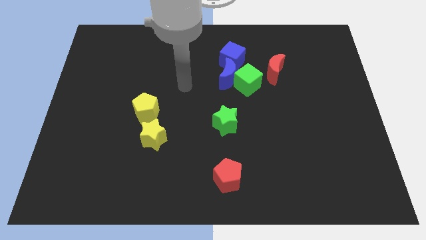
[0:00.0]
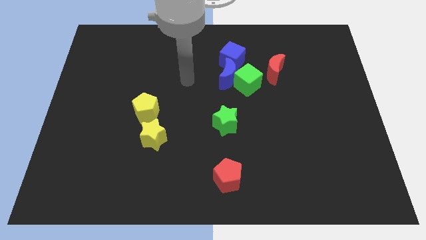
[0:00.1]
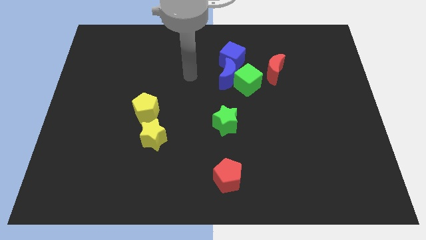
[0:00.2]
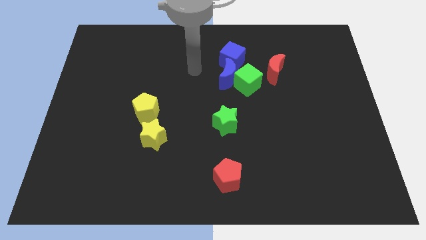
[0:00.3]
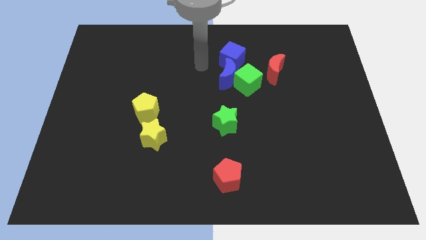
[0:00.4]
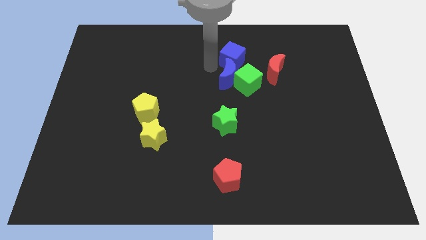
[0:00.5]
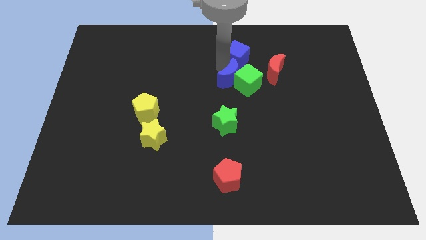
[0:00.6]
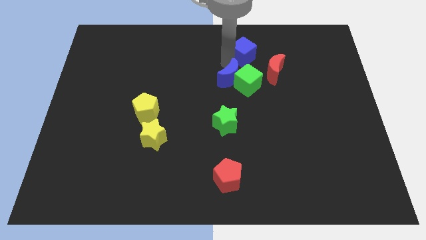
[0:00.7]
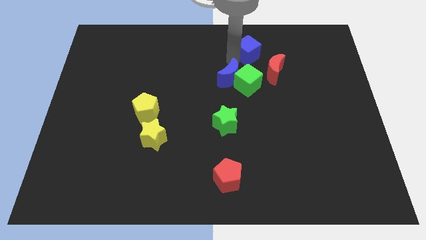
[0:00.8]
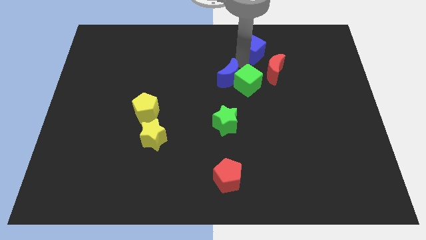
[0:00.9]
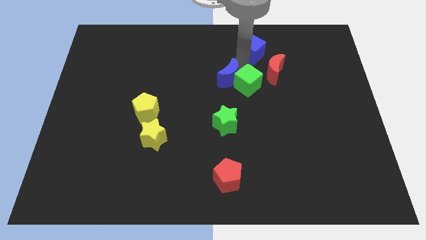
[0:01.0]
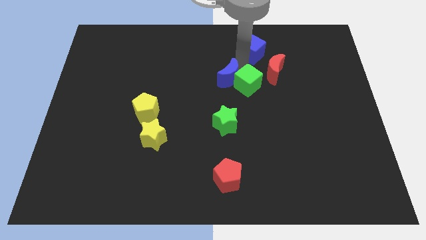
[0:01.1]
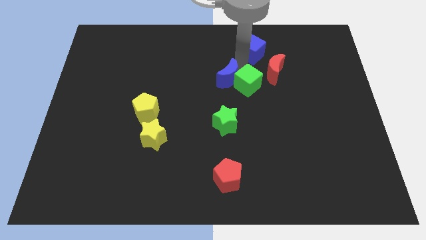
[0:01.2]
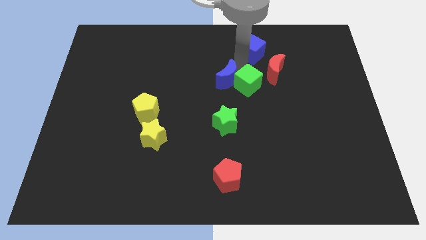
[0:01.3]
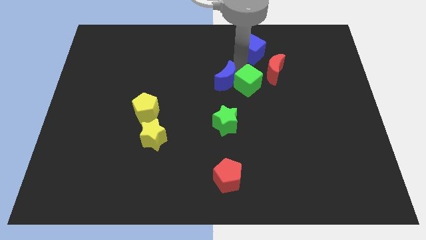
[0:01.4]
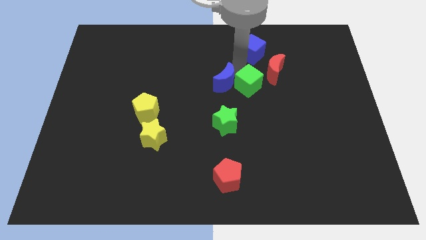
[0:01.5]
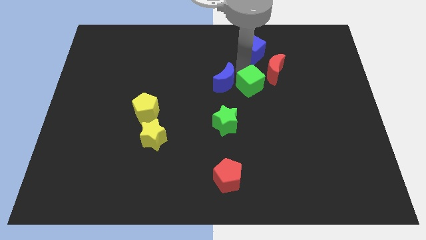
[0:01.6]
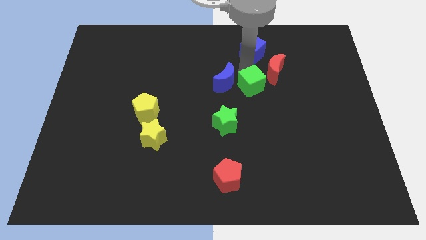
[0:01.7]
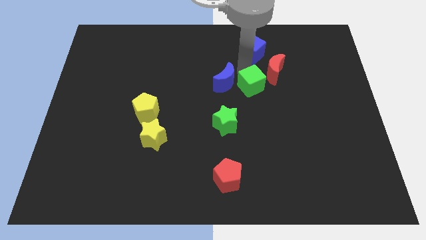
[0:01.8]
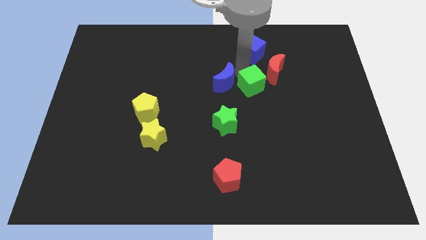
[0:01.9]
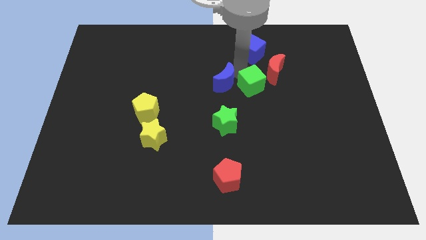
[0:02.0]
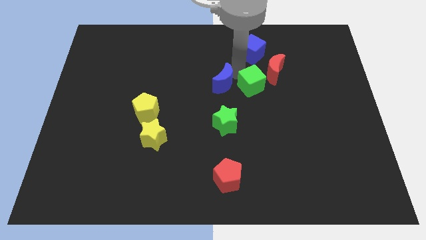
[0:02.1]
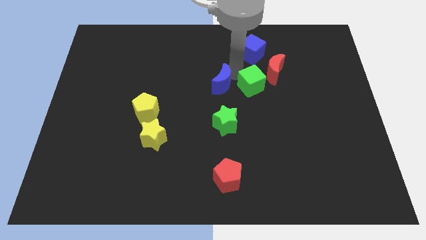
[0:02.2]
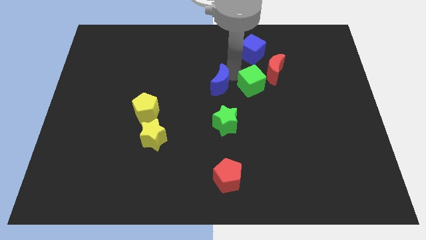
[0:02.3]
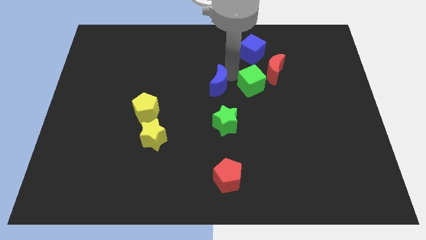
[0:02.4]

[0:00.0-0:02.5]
pull the blue moon apart from the green cube and blue cube

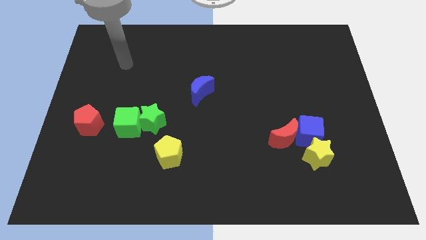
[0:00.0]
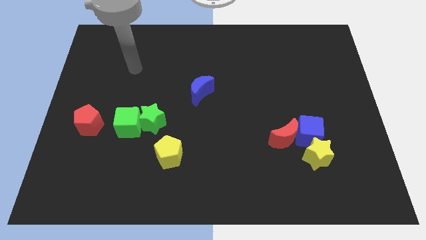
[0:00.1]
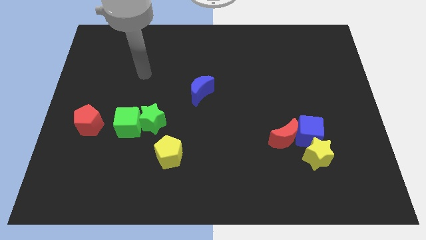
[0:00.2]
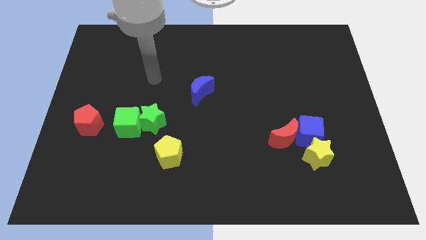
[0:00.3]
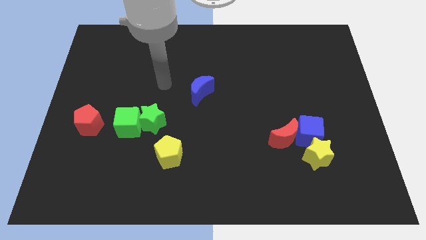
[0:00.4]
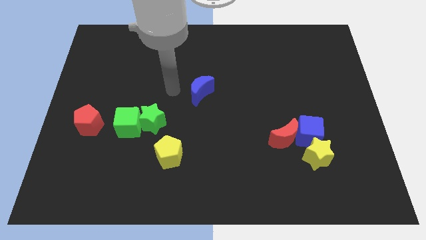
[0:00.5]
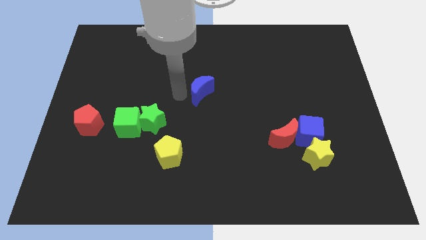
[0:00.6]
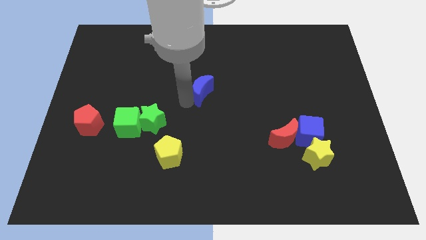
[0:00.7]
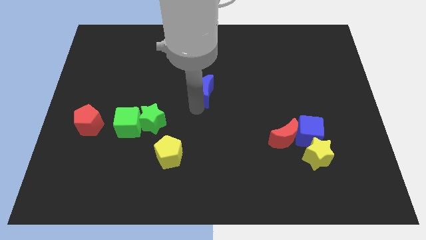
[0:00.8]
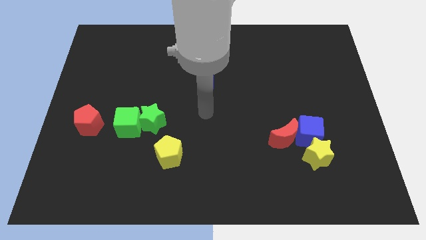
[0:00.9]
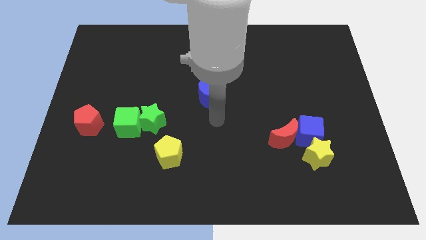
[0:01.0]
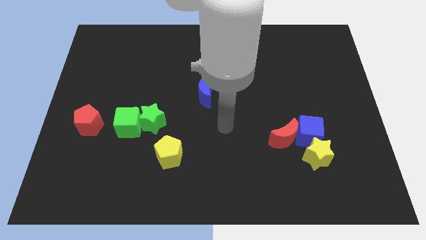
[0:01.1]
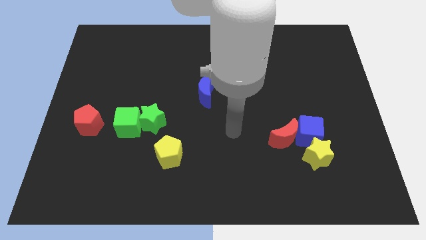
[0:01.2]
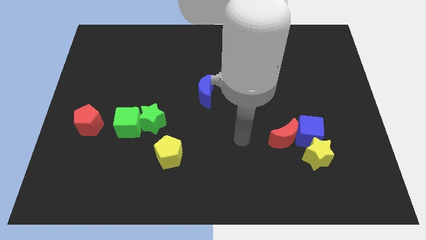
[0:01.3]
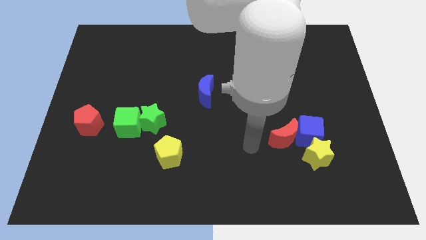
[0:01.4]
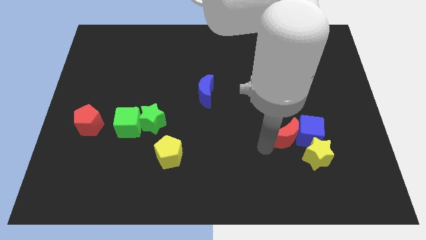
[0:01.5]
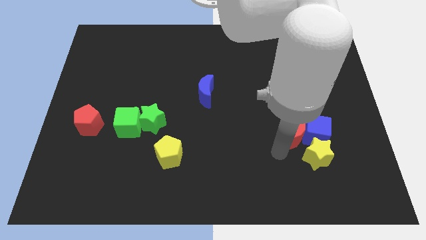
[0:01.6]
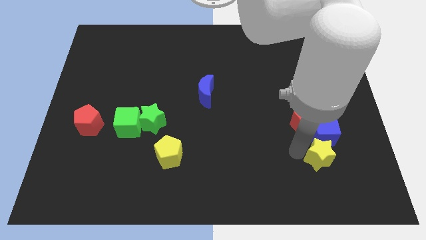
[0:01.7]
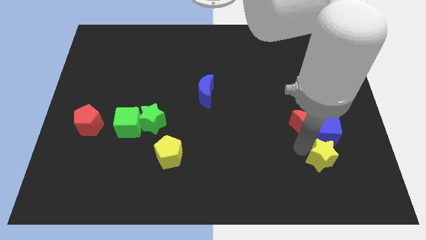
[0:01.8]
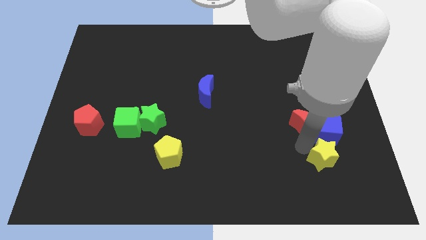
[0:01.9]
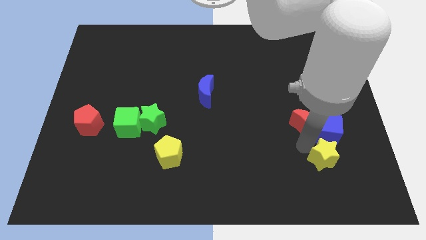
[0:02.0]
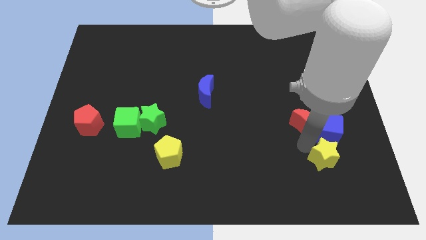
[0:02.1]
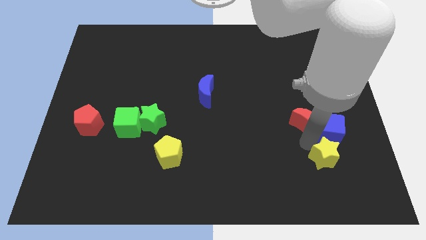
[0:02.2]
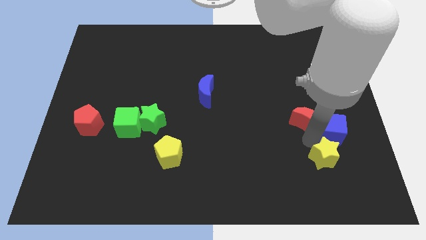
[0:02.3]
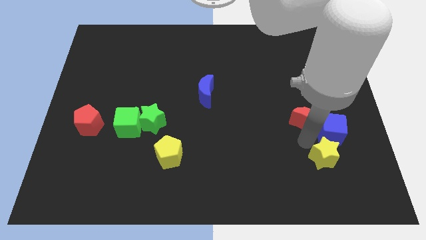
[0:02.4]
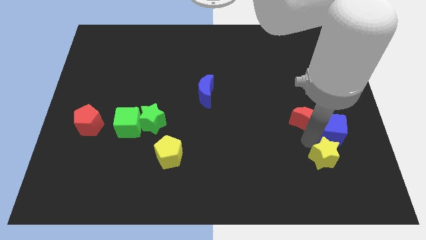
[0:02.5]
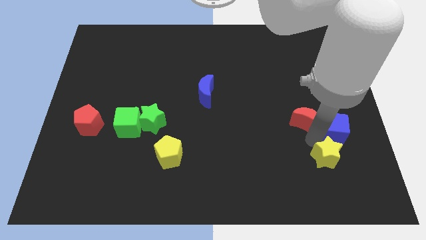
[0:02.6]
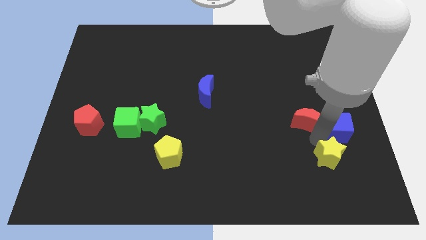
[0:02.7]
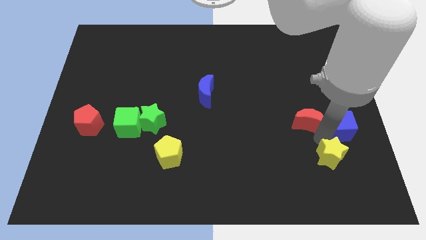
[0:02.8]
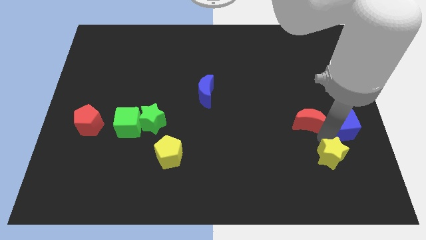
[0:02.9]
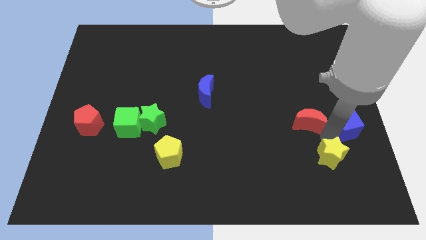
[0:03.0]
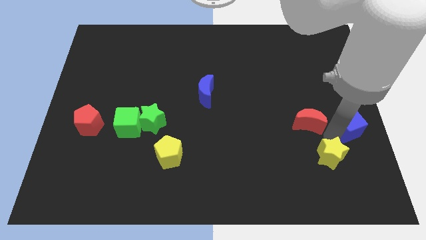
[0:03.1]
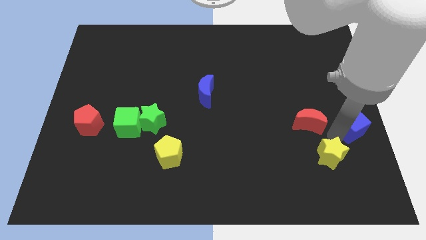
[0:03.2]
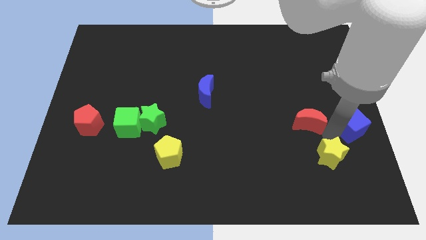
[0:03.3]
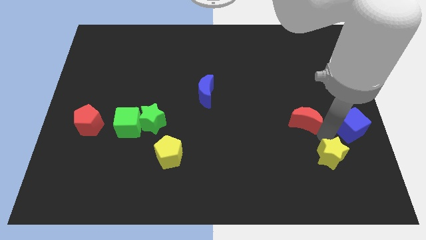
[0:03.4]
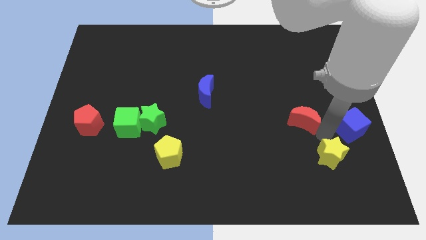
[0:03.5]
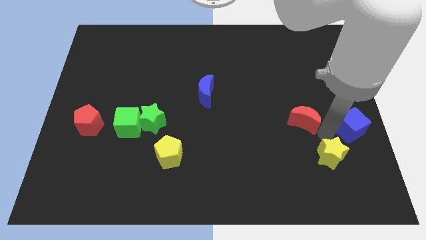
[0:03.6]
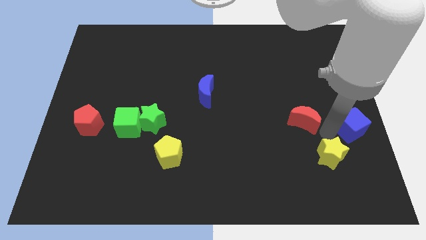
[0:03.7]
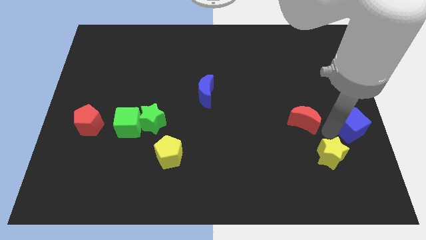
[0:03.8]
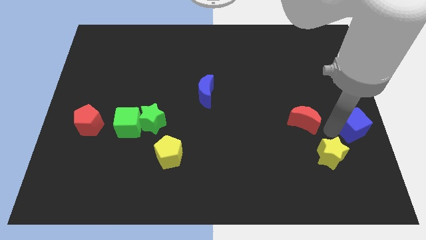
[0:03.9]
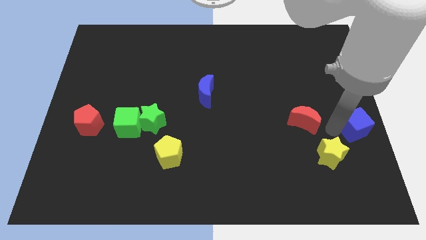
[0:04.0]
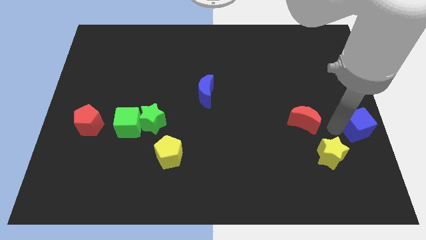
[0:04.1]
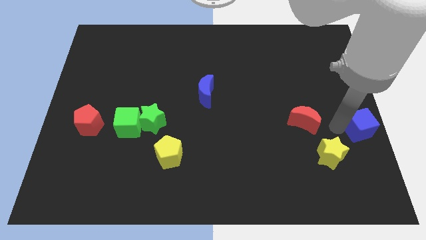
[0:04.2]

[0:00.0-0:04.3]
separate the blue cube from the yellow star and red moon

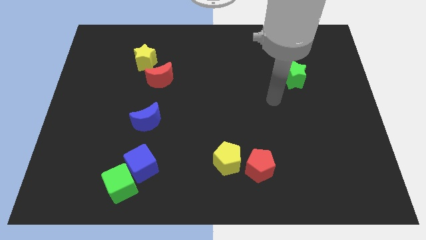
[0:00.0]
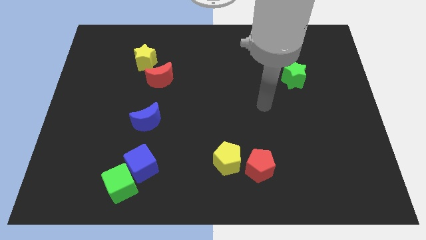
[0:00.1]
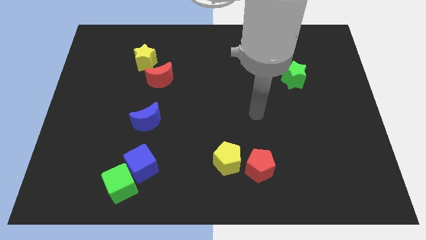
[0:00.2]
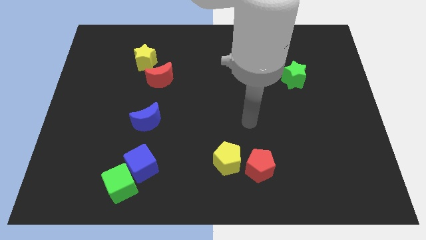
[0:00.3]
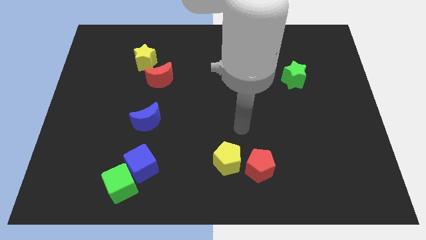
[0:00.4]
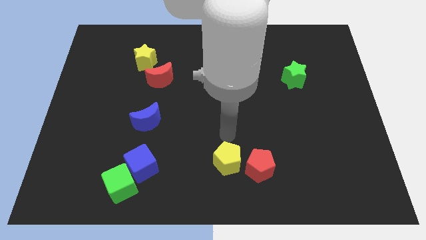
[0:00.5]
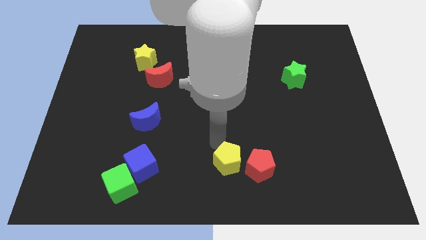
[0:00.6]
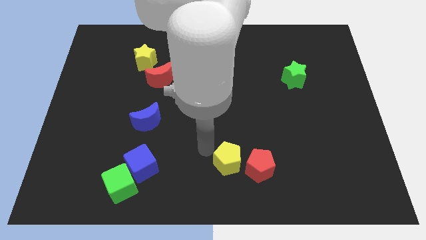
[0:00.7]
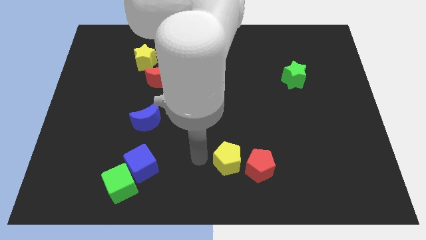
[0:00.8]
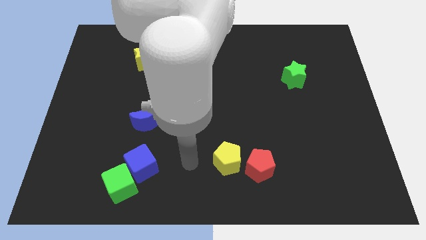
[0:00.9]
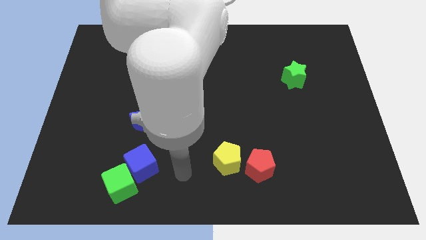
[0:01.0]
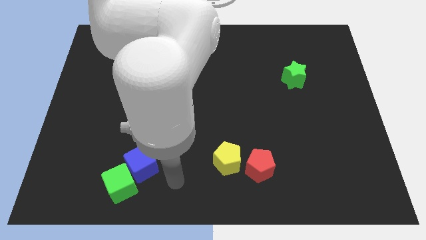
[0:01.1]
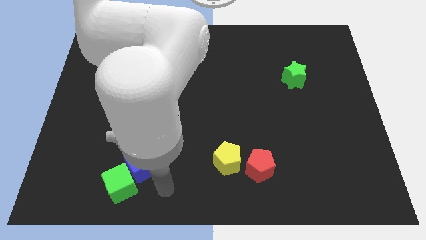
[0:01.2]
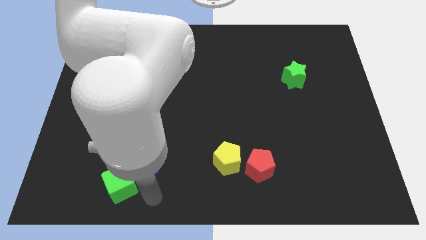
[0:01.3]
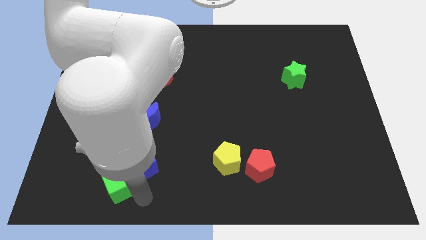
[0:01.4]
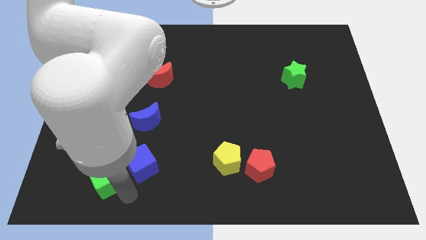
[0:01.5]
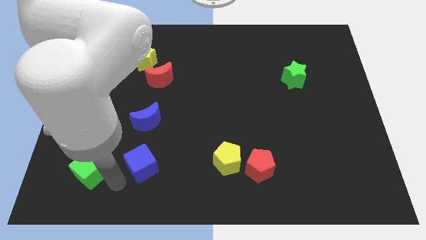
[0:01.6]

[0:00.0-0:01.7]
pull the blue cube apart from the green cube

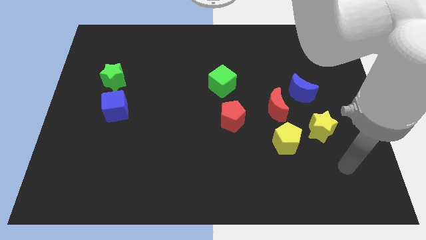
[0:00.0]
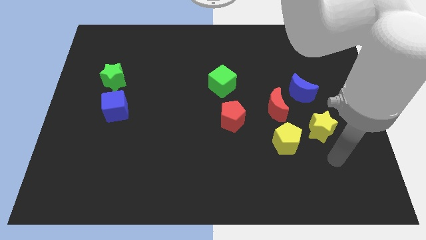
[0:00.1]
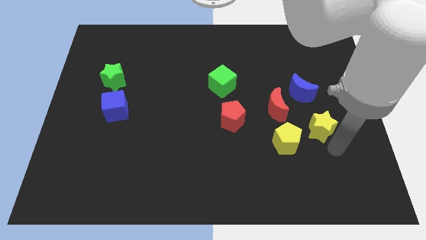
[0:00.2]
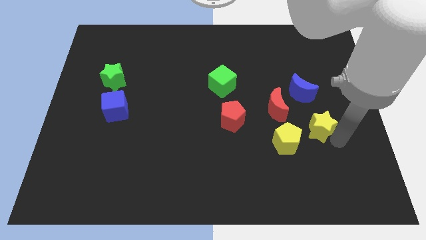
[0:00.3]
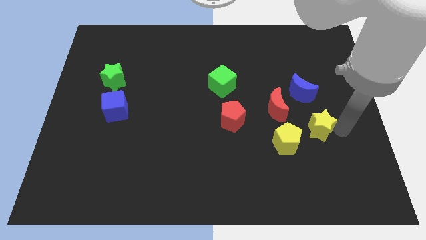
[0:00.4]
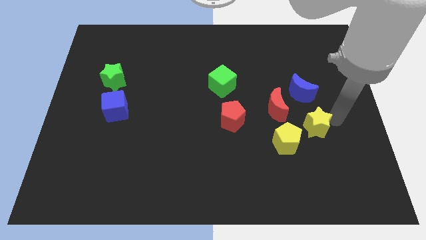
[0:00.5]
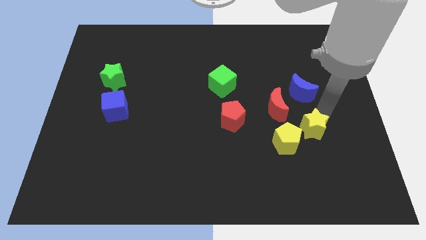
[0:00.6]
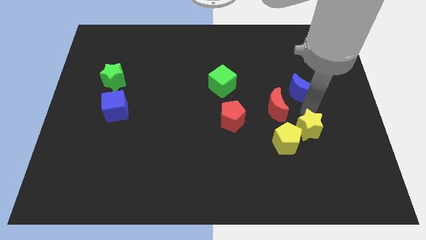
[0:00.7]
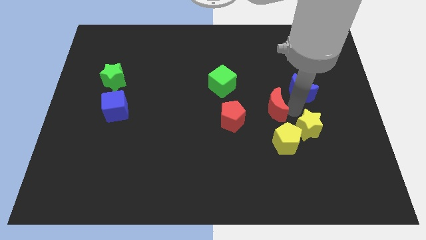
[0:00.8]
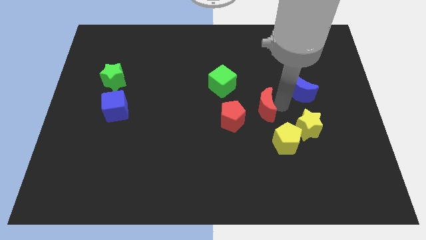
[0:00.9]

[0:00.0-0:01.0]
separate the blue moon from the red moon
